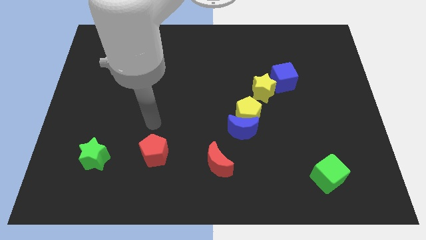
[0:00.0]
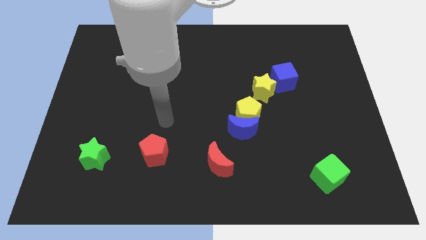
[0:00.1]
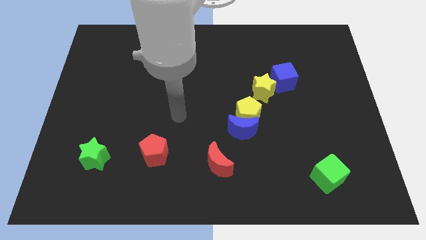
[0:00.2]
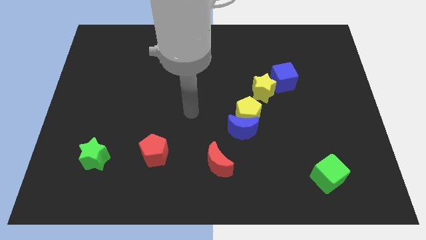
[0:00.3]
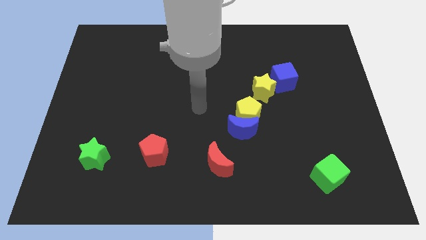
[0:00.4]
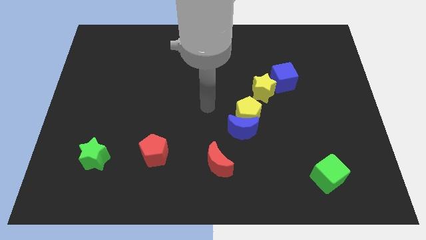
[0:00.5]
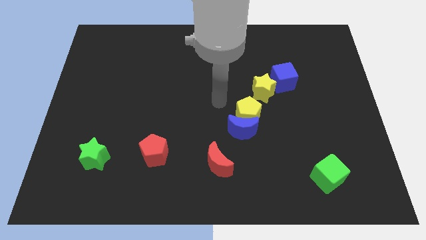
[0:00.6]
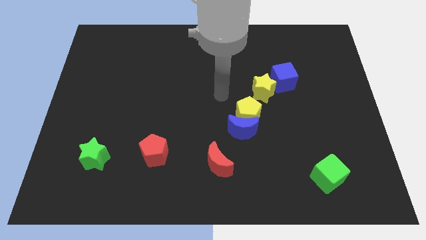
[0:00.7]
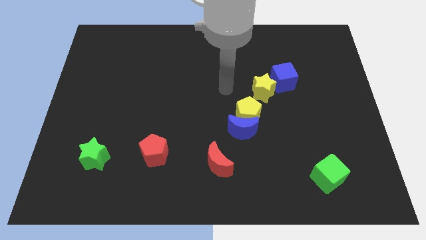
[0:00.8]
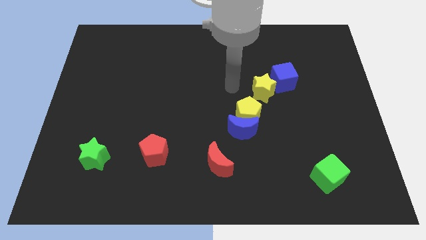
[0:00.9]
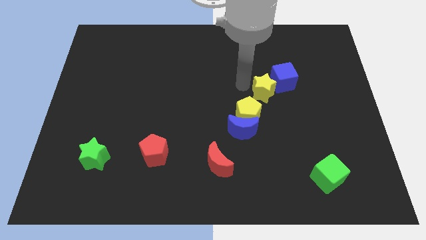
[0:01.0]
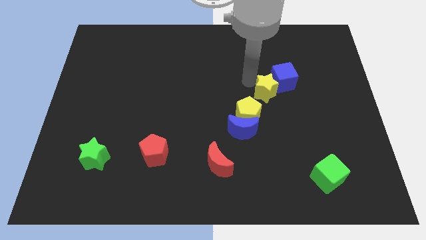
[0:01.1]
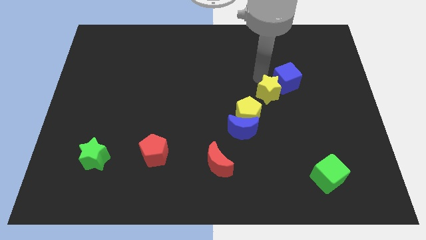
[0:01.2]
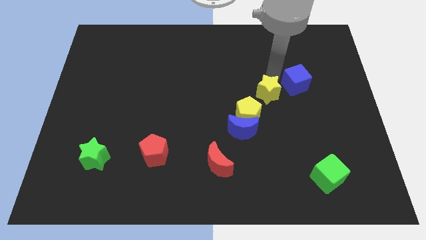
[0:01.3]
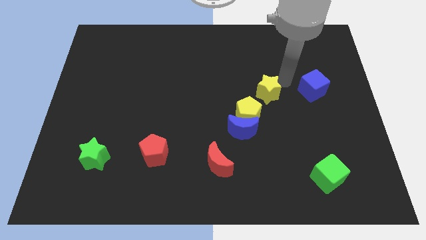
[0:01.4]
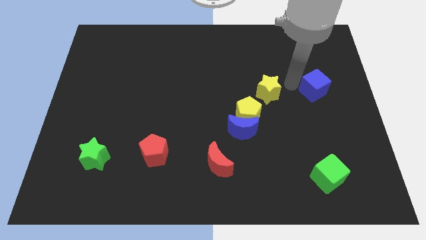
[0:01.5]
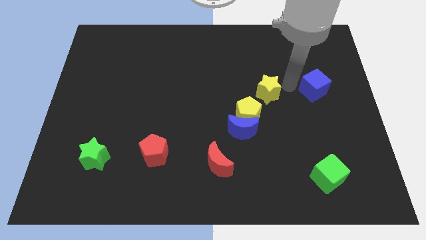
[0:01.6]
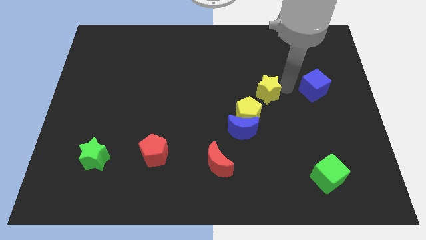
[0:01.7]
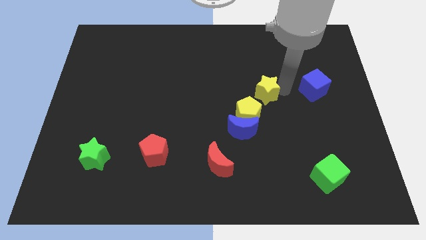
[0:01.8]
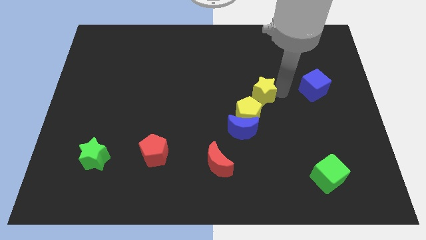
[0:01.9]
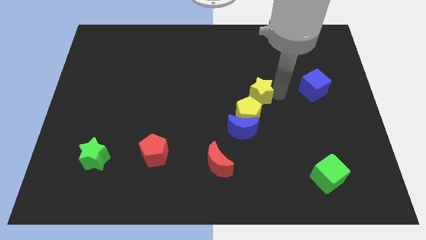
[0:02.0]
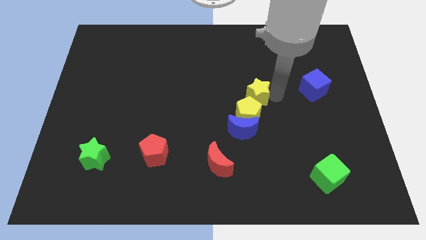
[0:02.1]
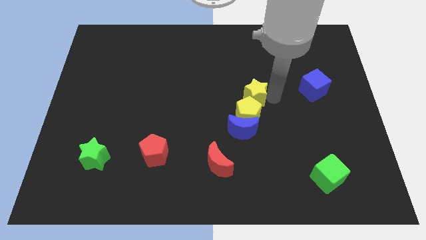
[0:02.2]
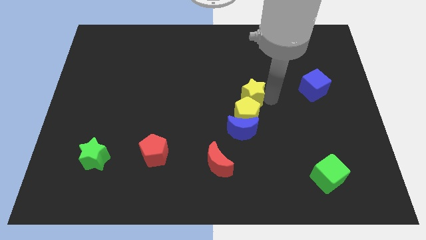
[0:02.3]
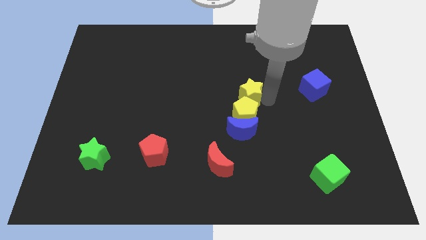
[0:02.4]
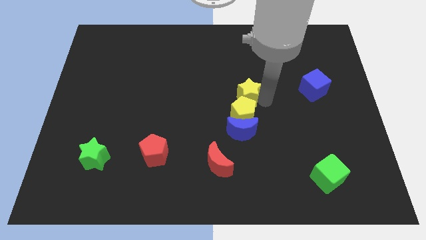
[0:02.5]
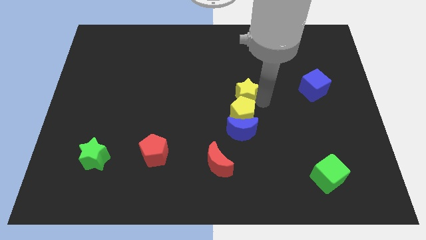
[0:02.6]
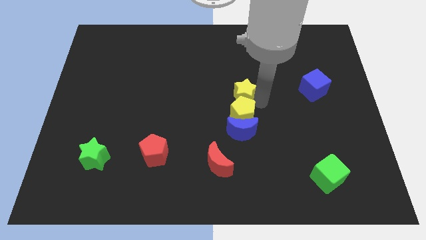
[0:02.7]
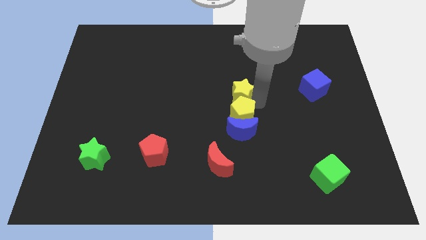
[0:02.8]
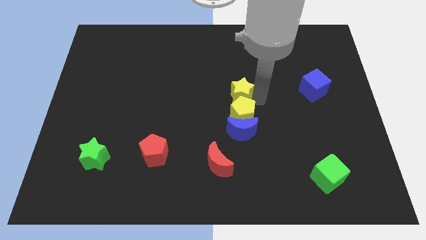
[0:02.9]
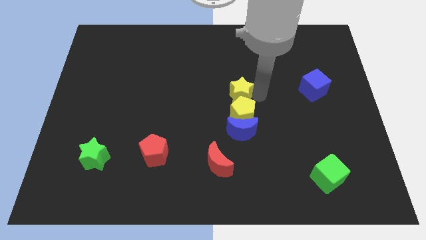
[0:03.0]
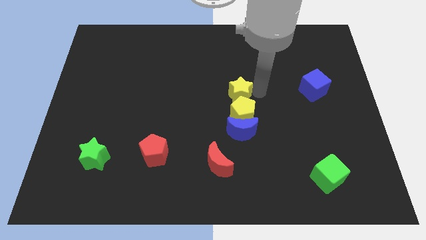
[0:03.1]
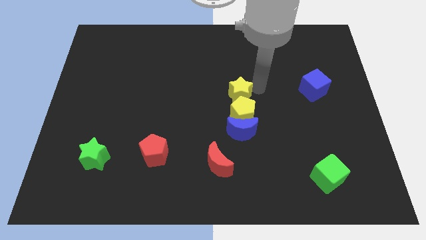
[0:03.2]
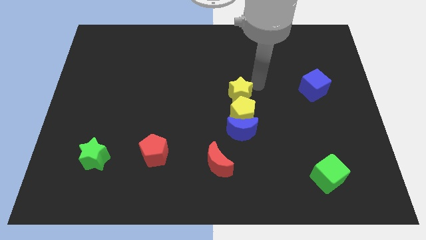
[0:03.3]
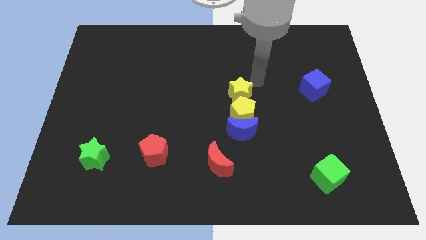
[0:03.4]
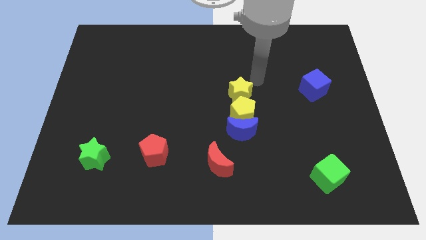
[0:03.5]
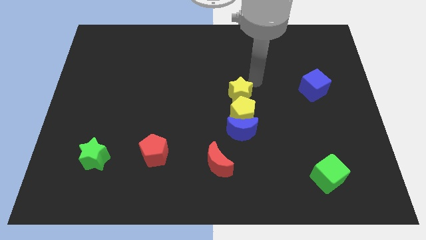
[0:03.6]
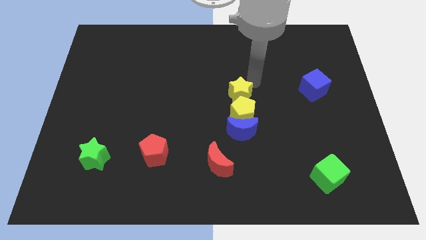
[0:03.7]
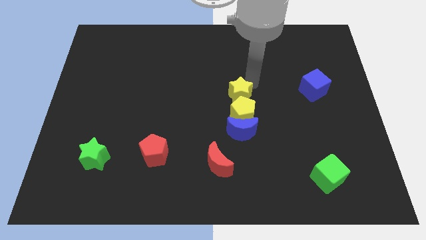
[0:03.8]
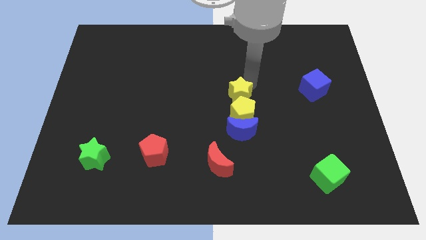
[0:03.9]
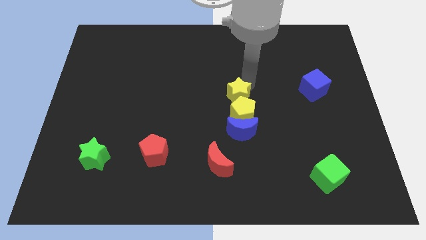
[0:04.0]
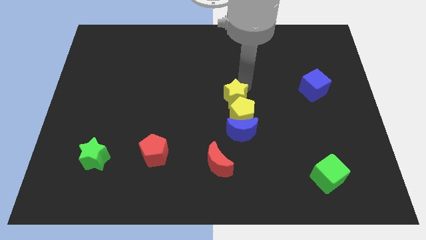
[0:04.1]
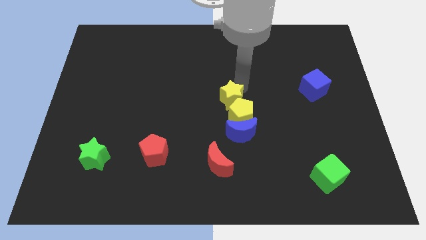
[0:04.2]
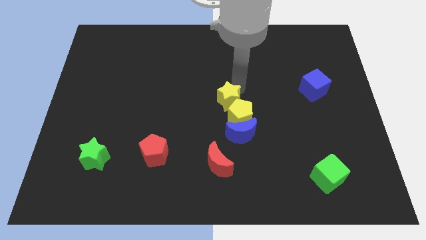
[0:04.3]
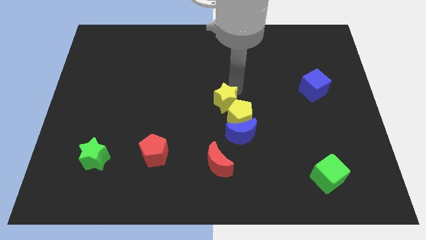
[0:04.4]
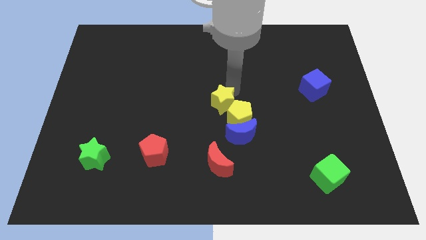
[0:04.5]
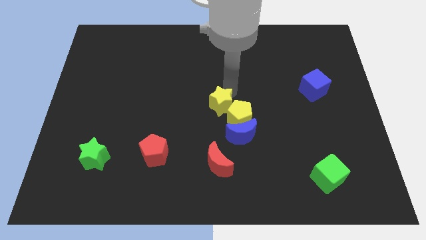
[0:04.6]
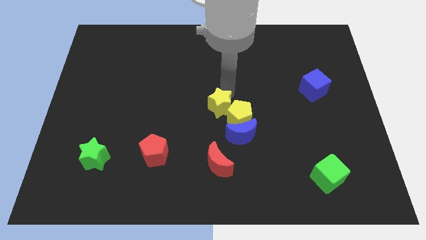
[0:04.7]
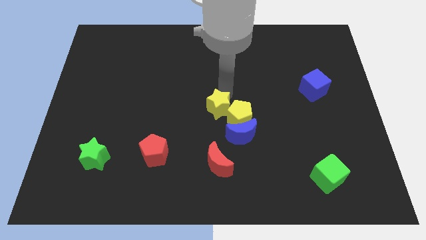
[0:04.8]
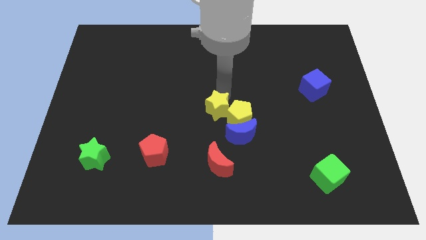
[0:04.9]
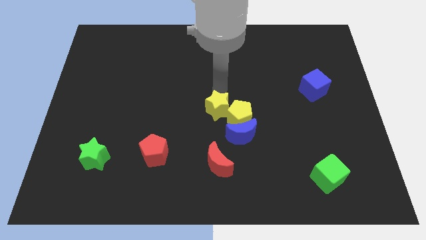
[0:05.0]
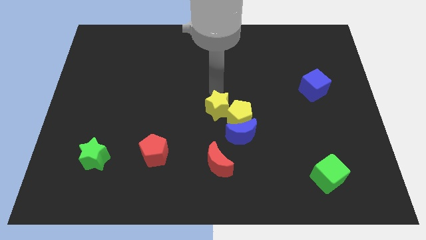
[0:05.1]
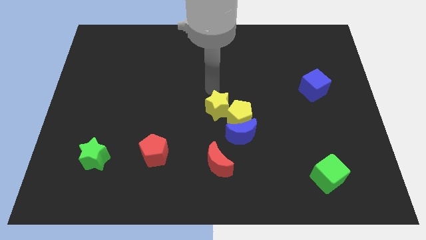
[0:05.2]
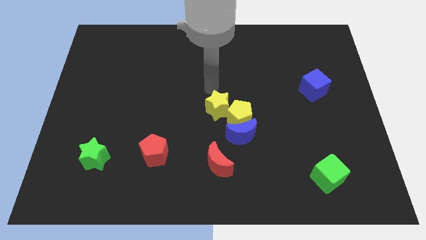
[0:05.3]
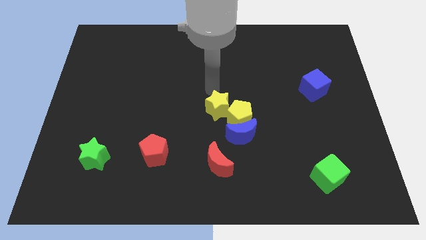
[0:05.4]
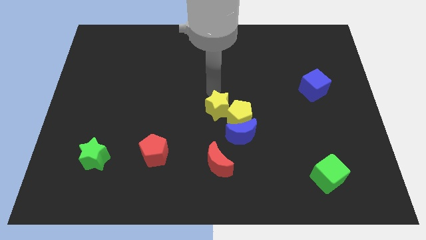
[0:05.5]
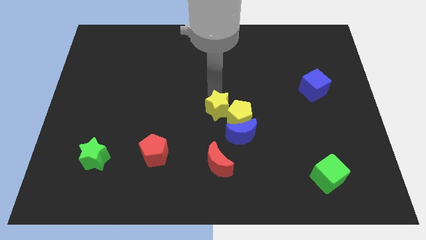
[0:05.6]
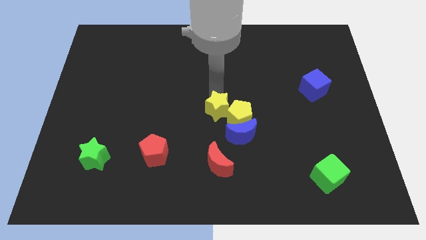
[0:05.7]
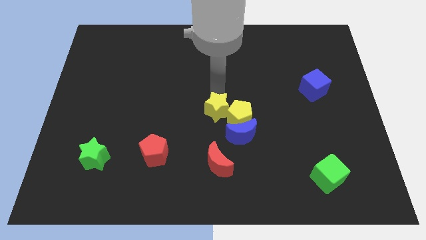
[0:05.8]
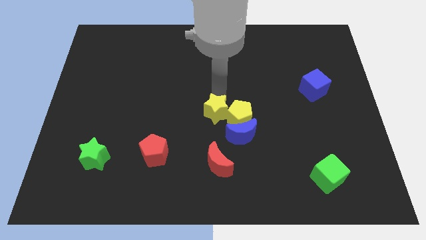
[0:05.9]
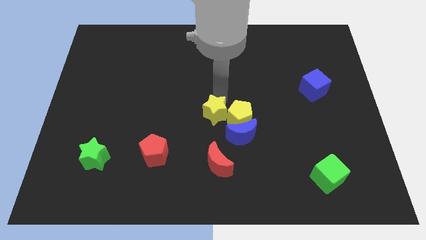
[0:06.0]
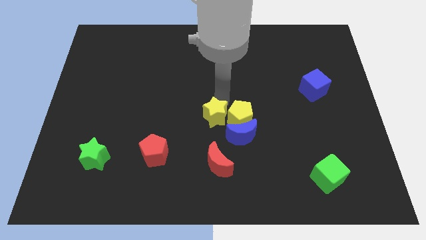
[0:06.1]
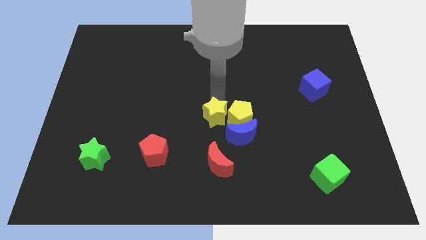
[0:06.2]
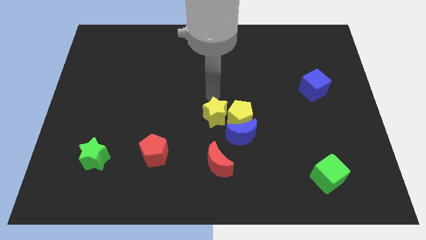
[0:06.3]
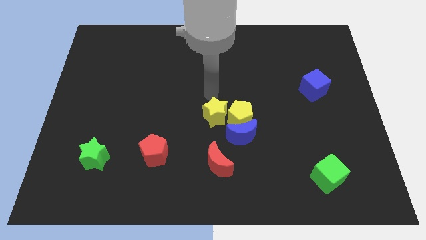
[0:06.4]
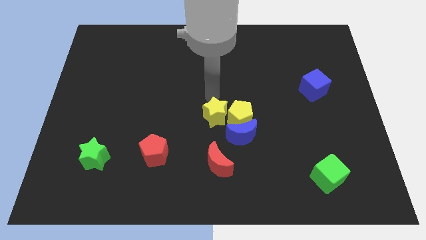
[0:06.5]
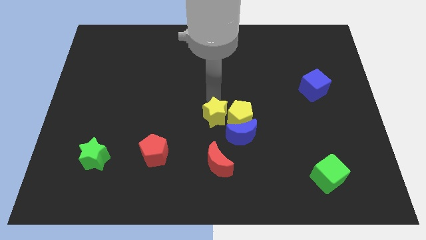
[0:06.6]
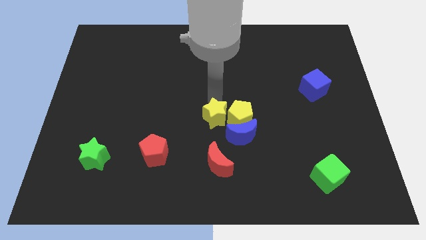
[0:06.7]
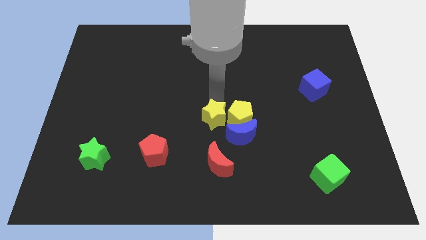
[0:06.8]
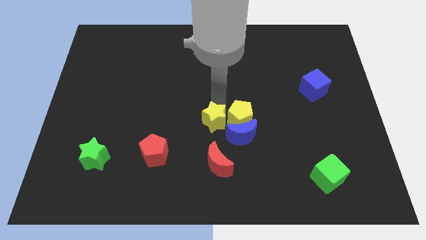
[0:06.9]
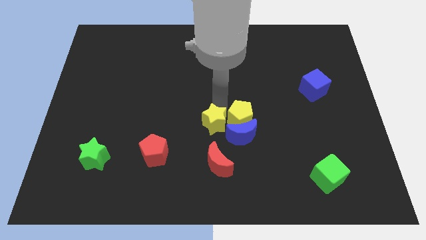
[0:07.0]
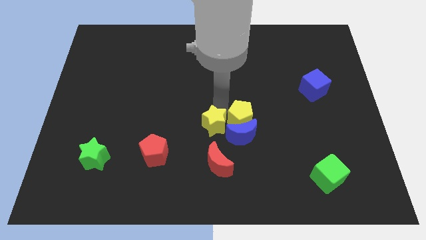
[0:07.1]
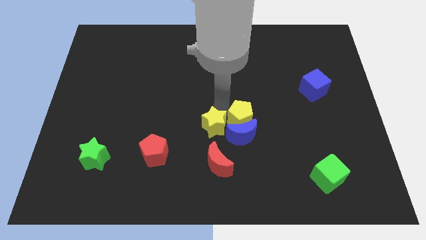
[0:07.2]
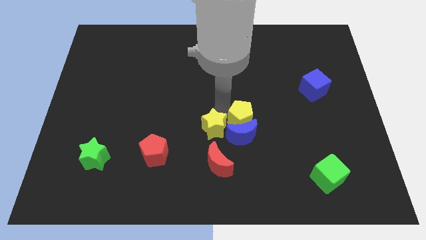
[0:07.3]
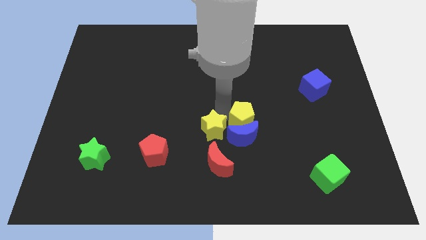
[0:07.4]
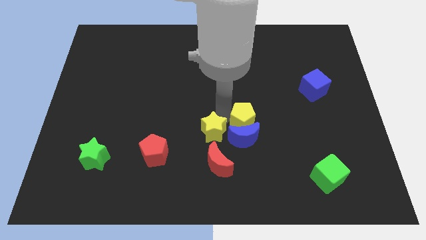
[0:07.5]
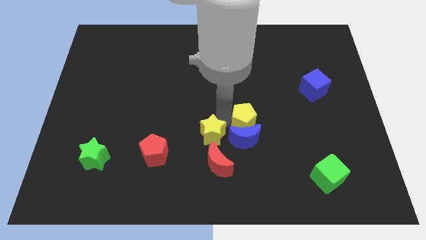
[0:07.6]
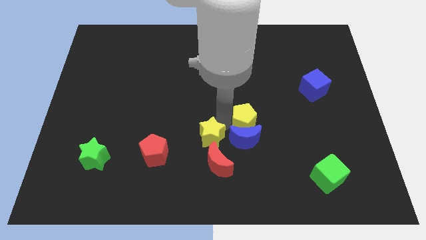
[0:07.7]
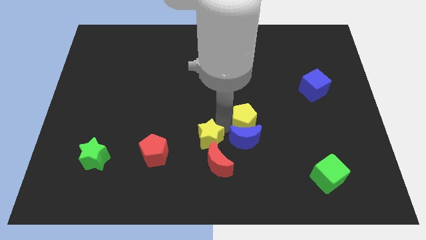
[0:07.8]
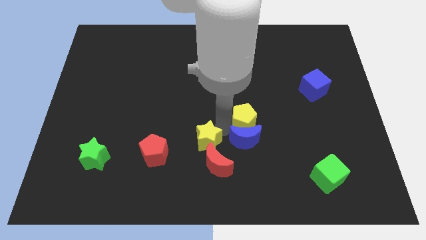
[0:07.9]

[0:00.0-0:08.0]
slide the yellow star next to the red moon
